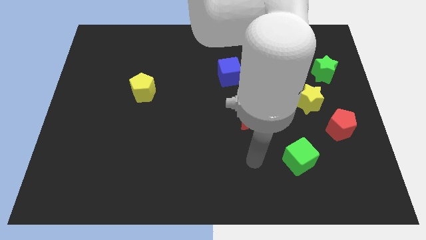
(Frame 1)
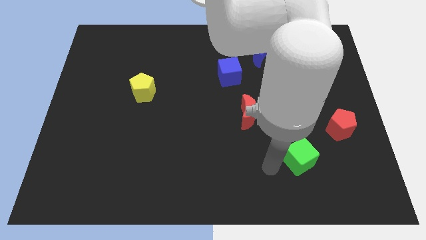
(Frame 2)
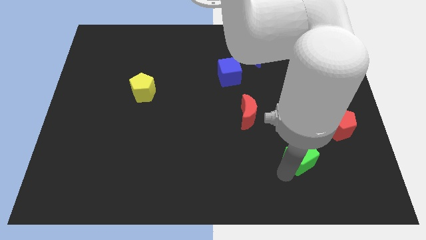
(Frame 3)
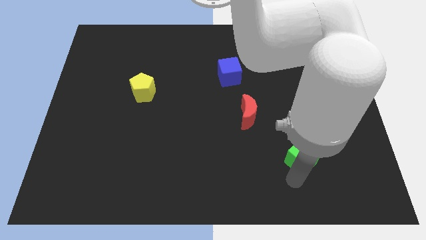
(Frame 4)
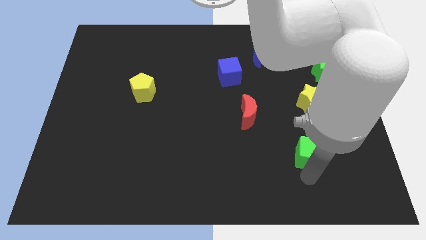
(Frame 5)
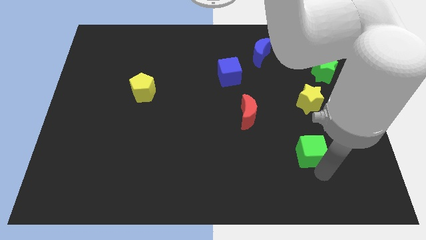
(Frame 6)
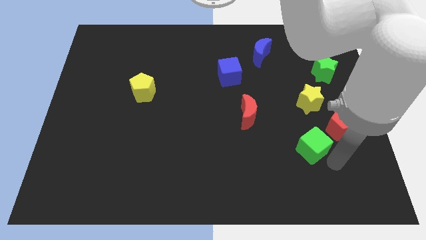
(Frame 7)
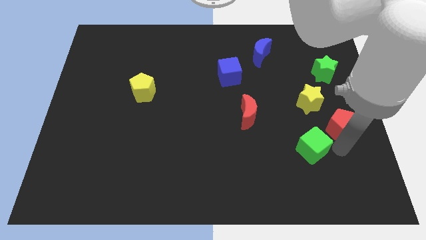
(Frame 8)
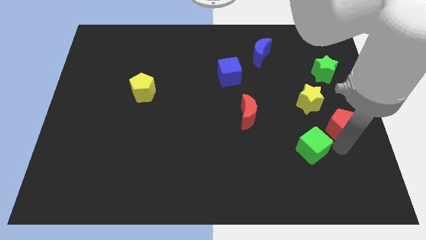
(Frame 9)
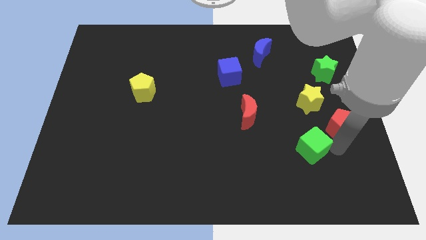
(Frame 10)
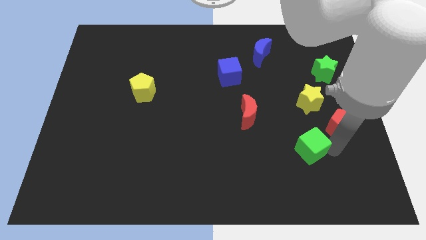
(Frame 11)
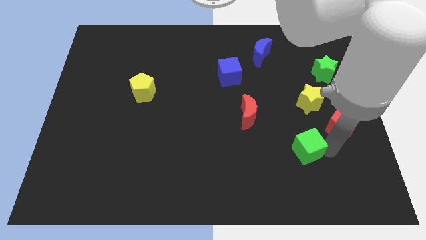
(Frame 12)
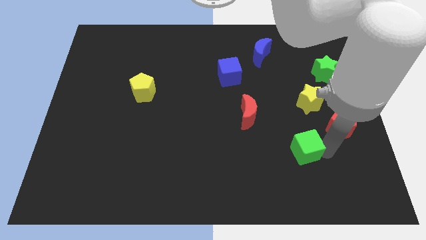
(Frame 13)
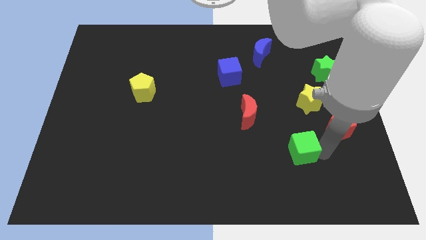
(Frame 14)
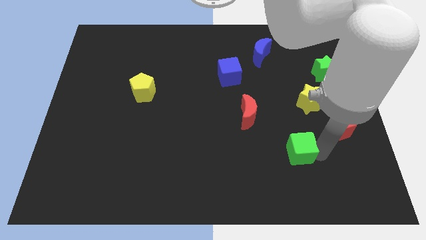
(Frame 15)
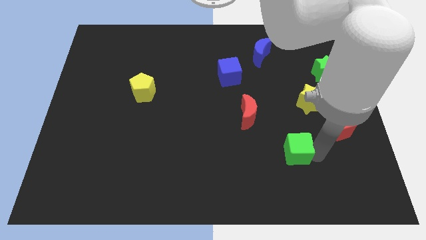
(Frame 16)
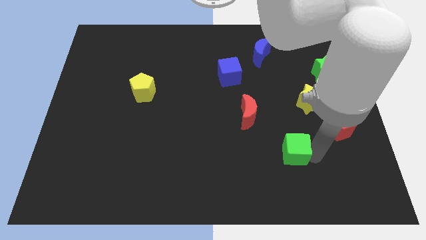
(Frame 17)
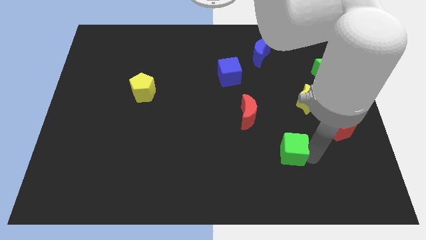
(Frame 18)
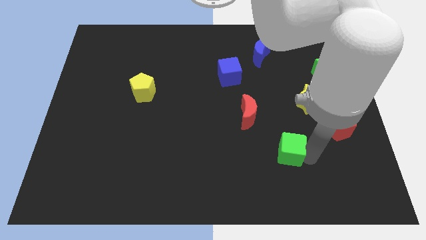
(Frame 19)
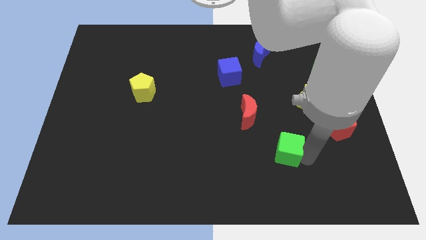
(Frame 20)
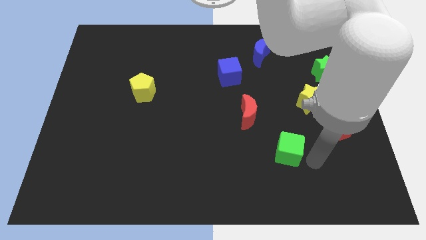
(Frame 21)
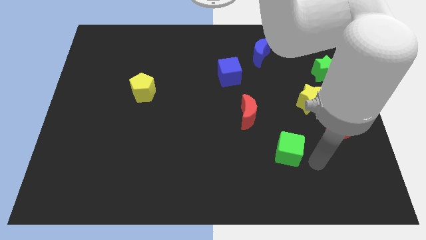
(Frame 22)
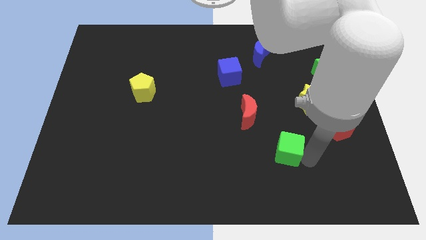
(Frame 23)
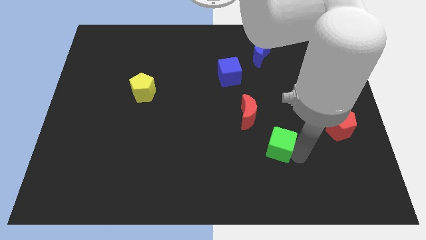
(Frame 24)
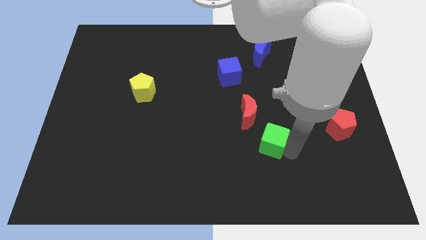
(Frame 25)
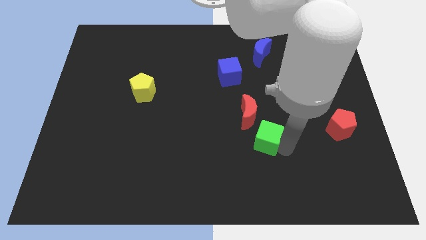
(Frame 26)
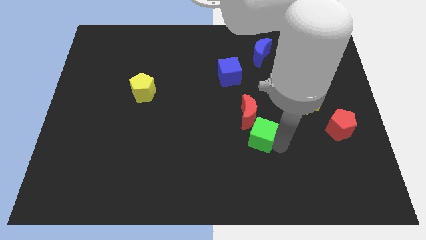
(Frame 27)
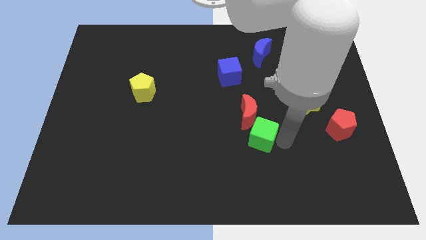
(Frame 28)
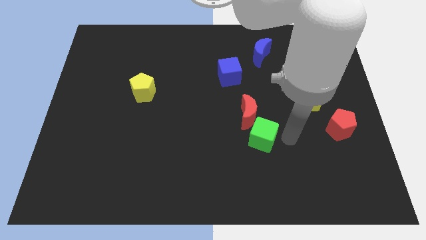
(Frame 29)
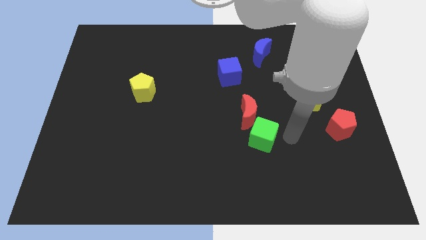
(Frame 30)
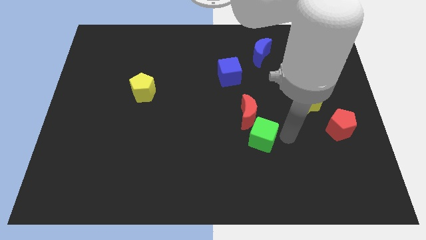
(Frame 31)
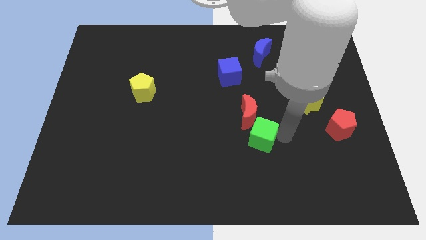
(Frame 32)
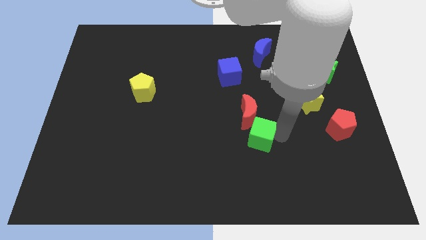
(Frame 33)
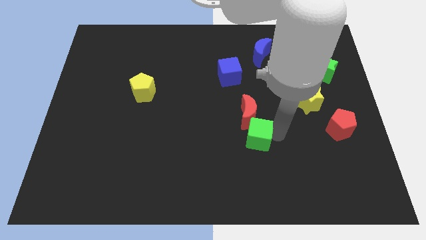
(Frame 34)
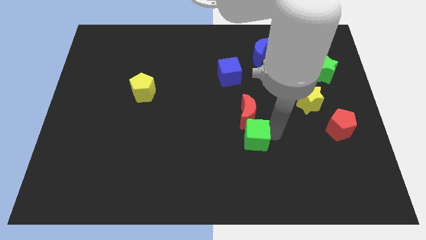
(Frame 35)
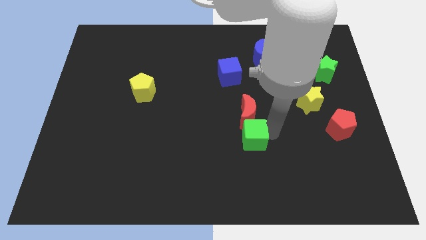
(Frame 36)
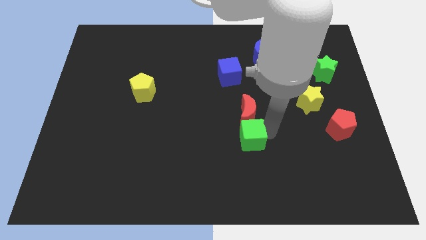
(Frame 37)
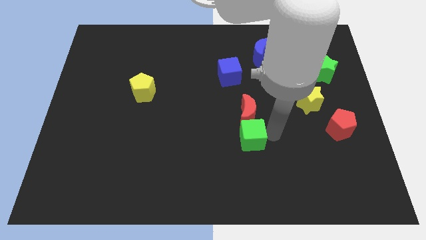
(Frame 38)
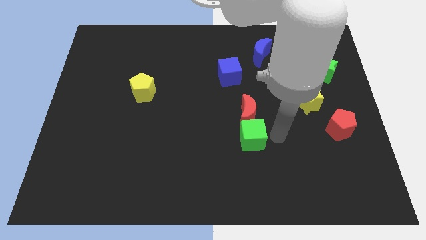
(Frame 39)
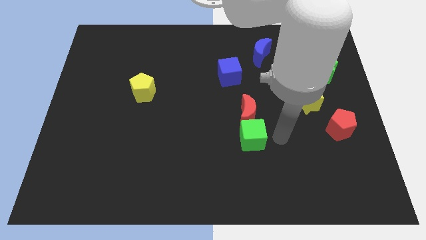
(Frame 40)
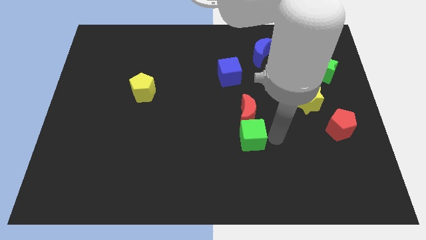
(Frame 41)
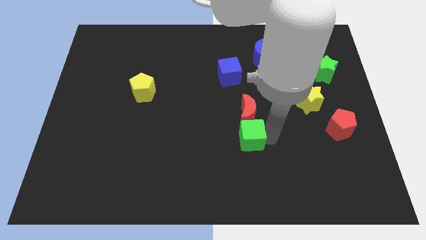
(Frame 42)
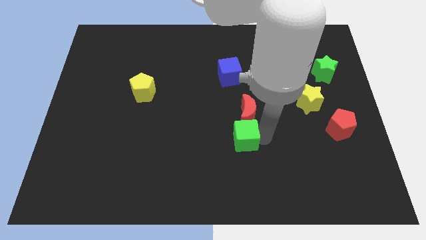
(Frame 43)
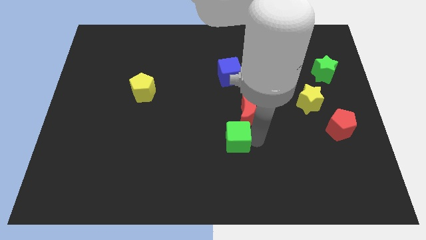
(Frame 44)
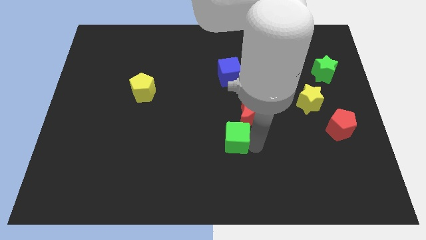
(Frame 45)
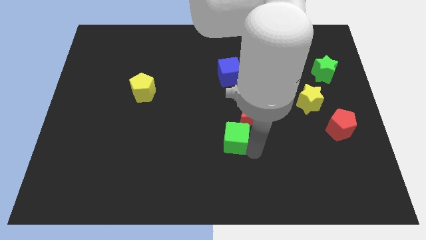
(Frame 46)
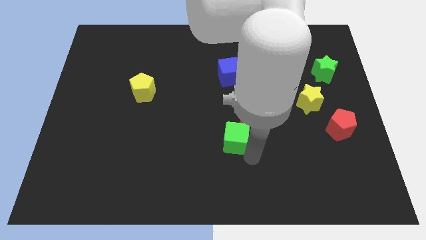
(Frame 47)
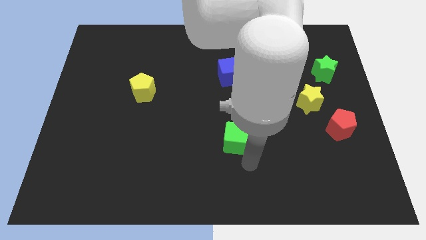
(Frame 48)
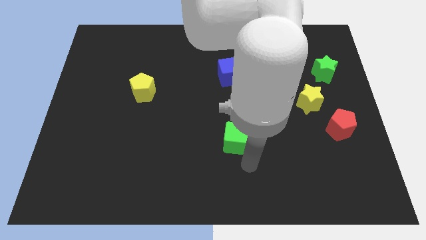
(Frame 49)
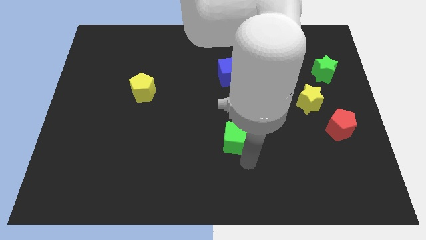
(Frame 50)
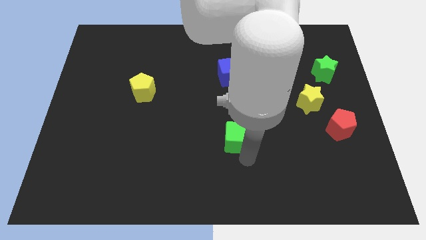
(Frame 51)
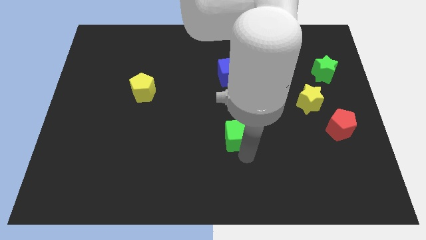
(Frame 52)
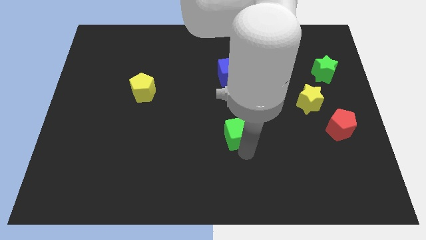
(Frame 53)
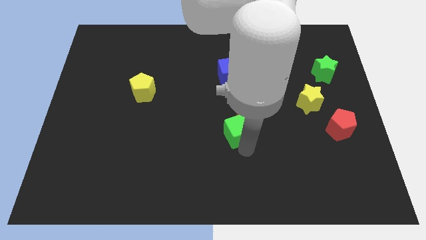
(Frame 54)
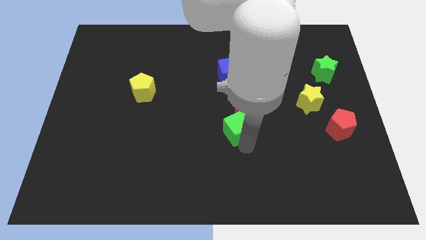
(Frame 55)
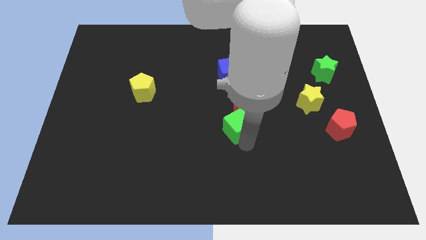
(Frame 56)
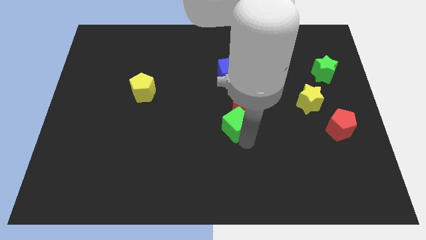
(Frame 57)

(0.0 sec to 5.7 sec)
slide the green cube to the bottom side of the blue cube

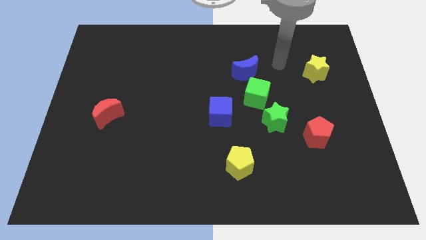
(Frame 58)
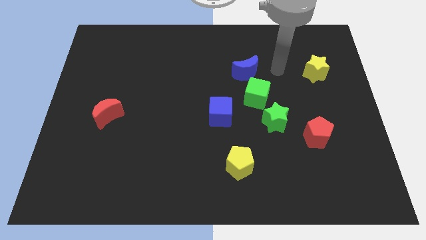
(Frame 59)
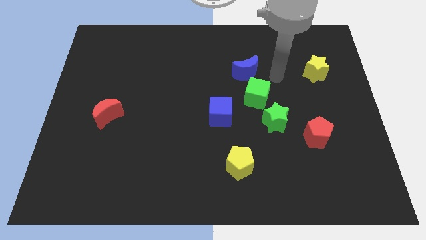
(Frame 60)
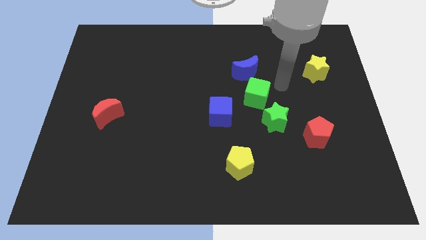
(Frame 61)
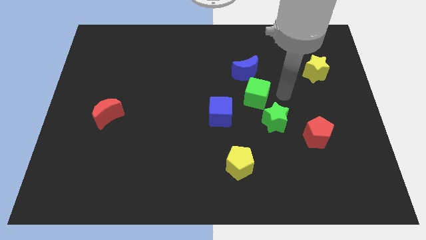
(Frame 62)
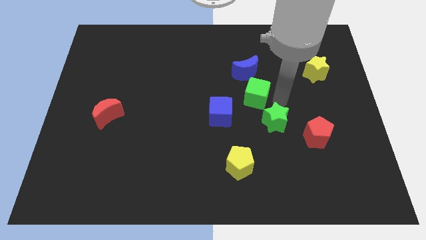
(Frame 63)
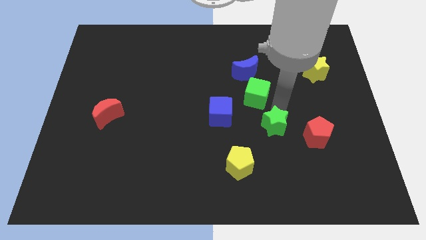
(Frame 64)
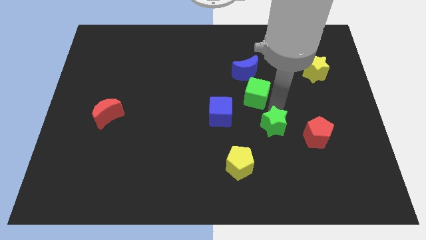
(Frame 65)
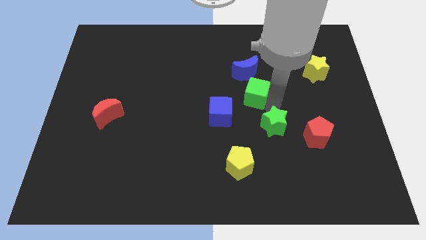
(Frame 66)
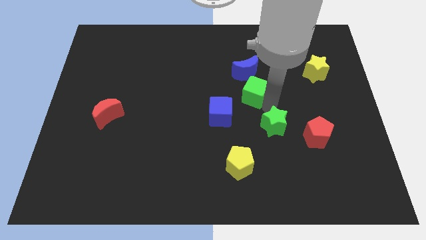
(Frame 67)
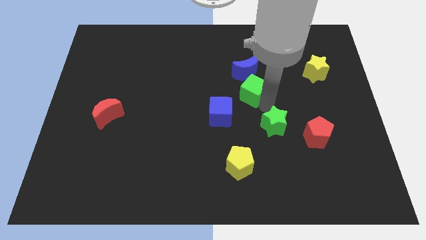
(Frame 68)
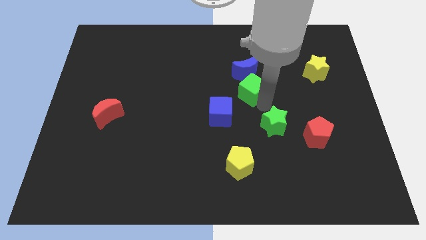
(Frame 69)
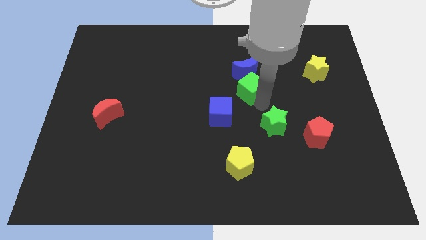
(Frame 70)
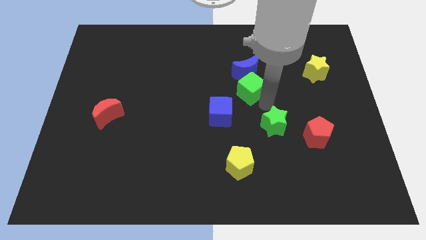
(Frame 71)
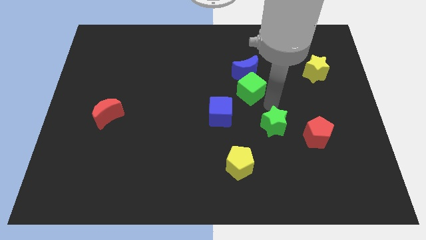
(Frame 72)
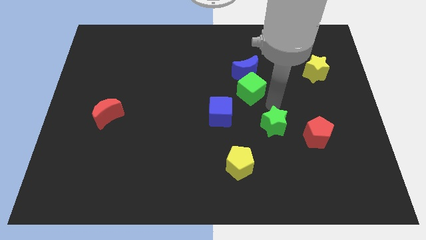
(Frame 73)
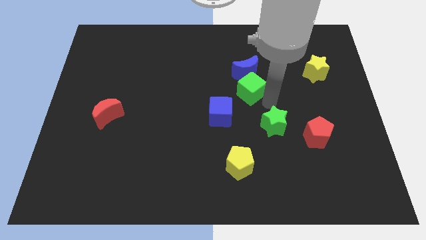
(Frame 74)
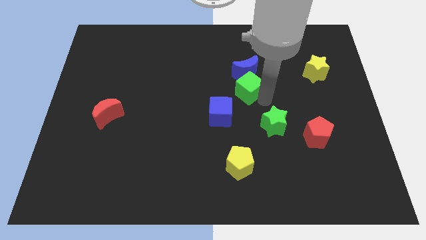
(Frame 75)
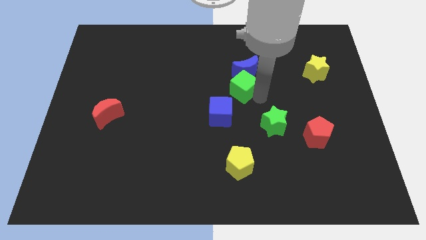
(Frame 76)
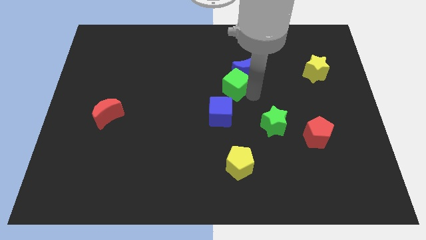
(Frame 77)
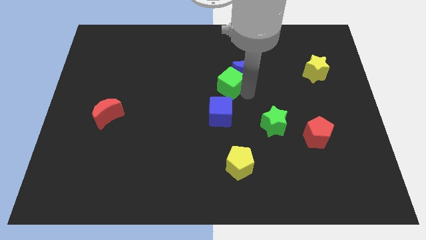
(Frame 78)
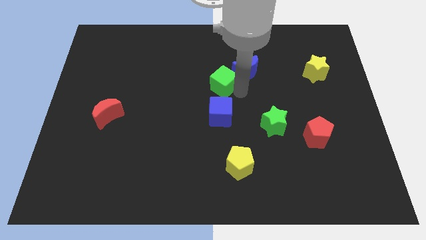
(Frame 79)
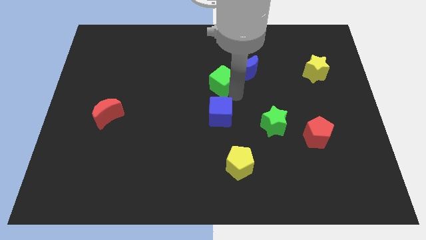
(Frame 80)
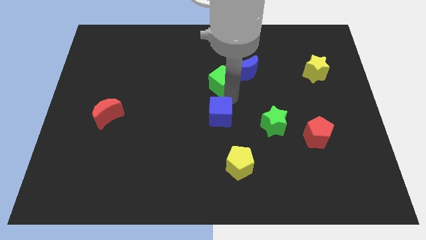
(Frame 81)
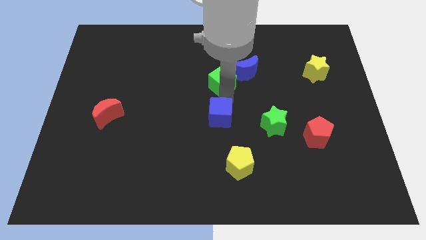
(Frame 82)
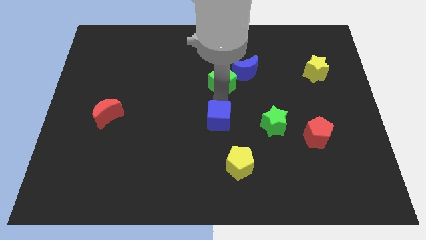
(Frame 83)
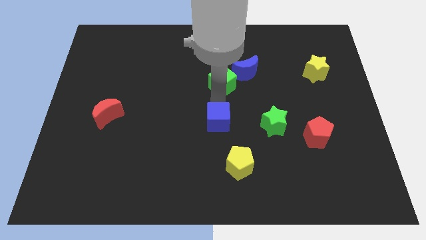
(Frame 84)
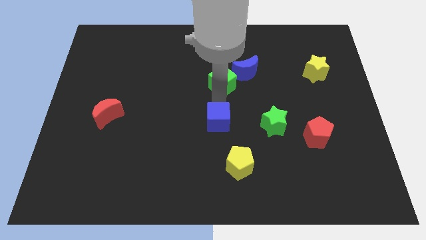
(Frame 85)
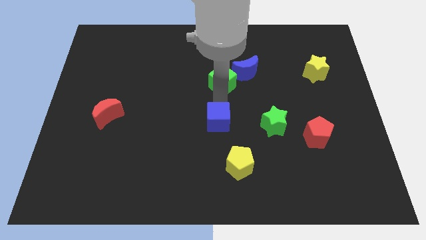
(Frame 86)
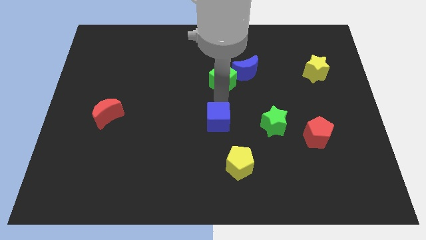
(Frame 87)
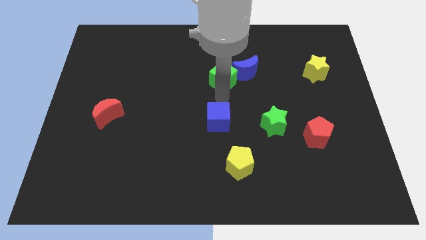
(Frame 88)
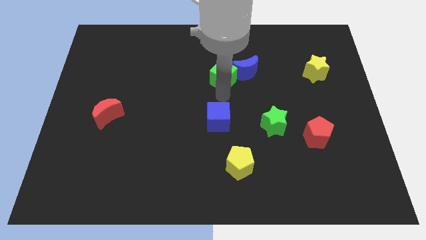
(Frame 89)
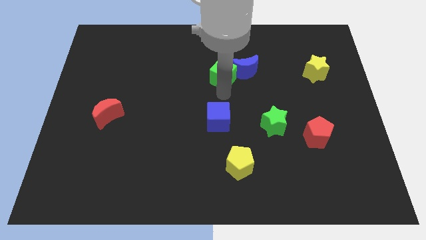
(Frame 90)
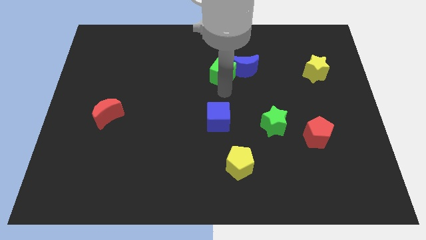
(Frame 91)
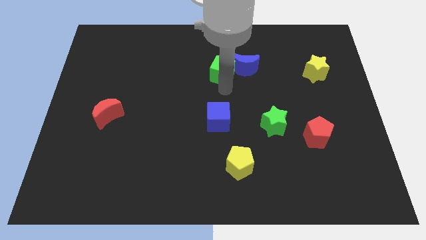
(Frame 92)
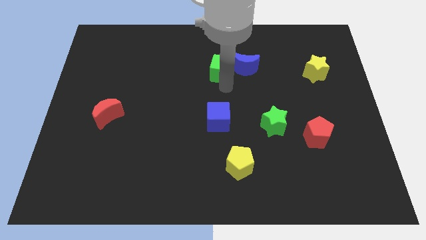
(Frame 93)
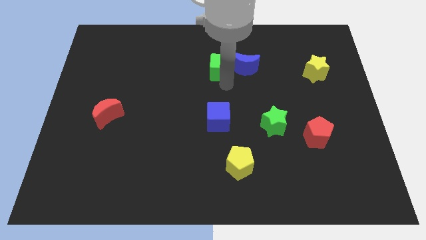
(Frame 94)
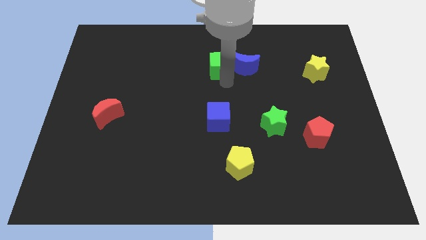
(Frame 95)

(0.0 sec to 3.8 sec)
slide the green cube to the top left side of the blue moon
